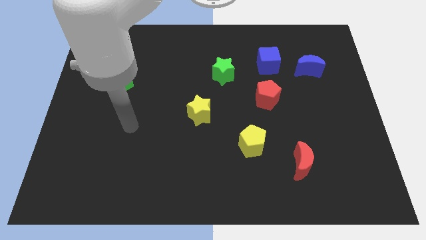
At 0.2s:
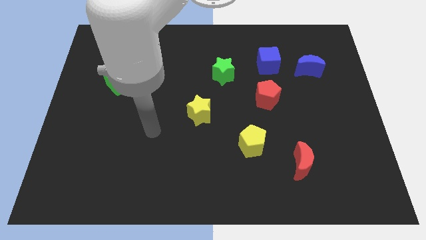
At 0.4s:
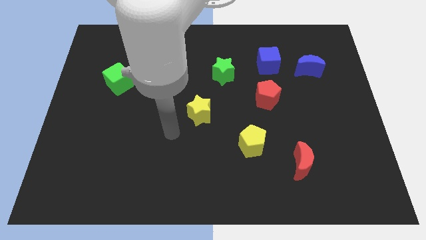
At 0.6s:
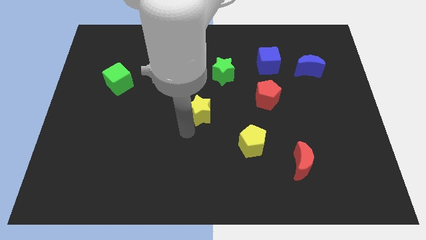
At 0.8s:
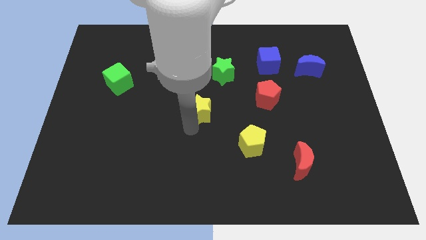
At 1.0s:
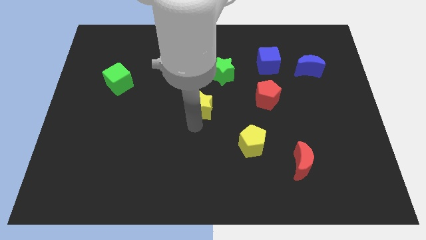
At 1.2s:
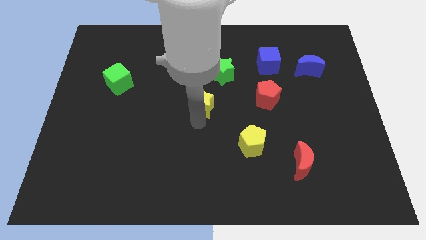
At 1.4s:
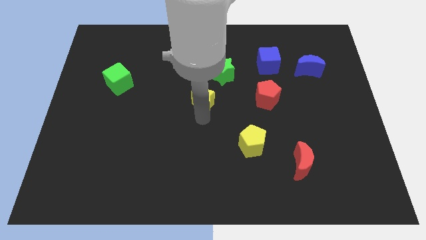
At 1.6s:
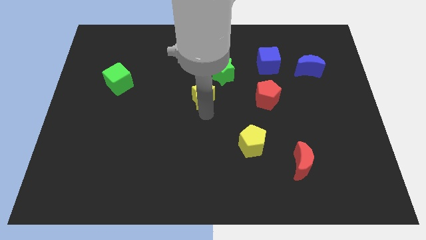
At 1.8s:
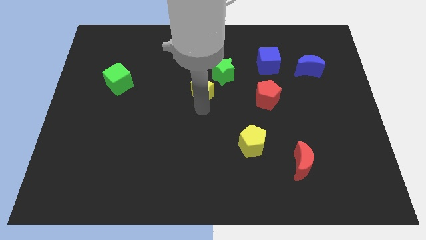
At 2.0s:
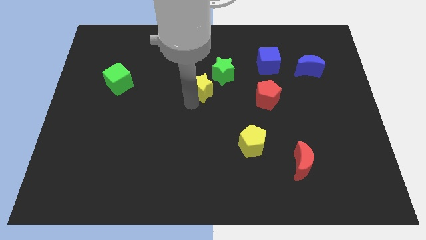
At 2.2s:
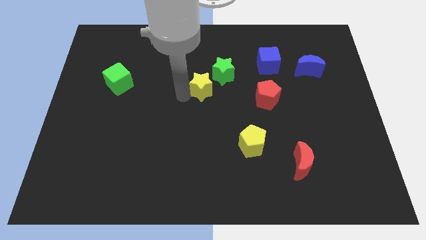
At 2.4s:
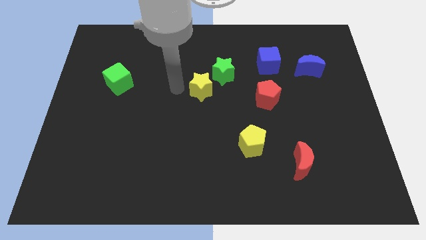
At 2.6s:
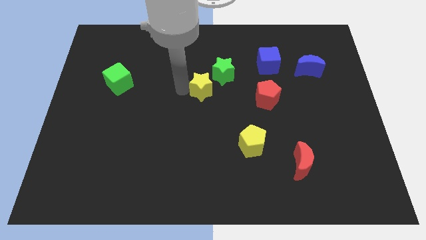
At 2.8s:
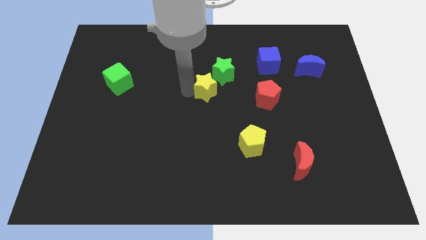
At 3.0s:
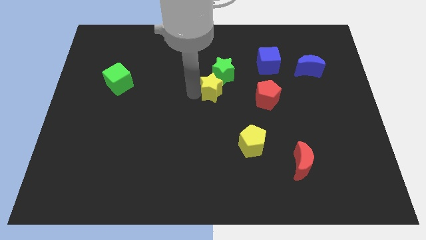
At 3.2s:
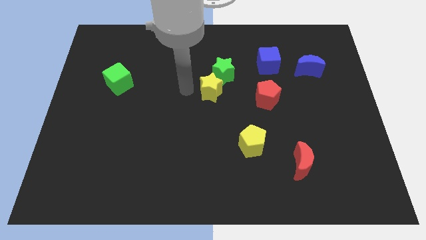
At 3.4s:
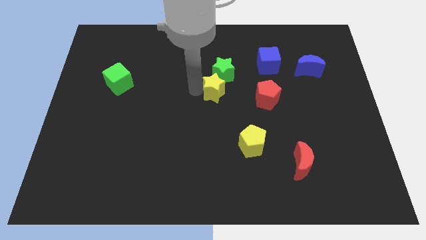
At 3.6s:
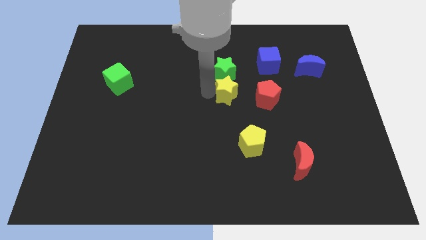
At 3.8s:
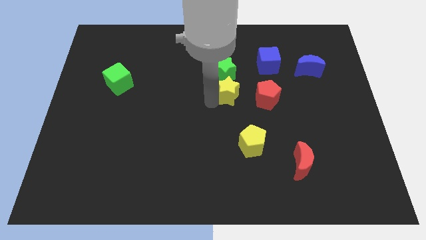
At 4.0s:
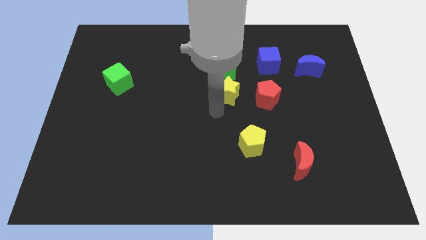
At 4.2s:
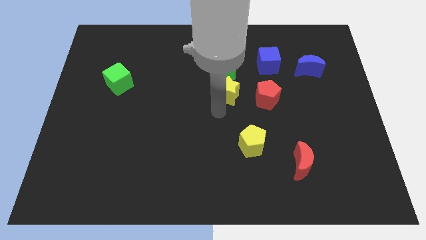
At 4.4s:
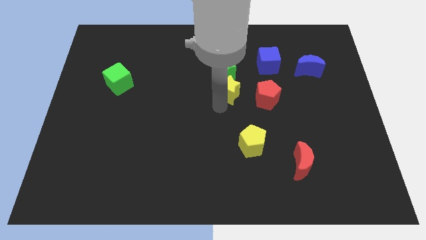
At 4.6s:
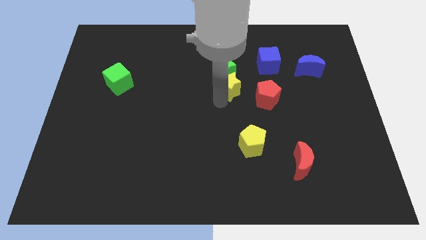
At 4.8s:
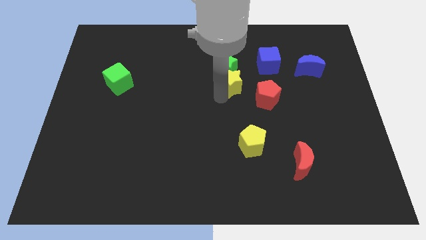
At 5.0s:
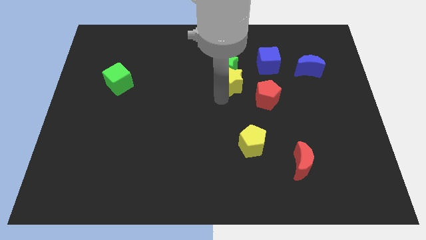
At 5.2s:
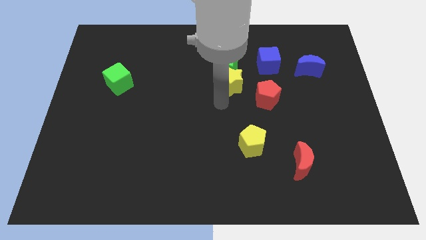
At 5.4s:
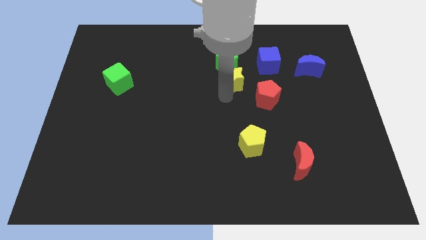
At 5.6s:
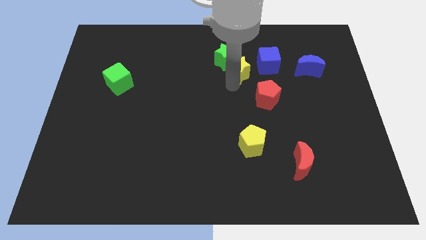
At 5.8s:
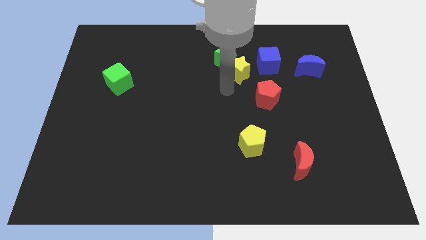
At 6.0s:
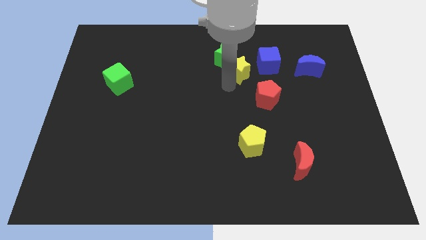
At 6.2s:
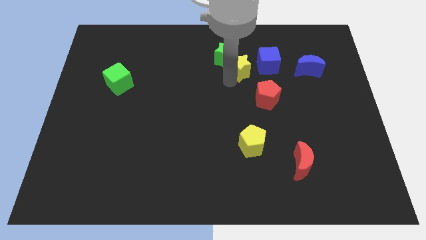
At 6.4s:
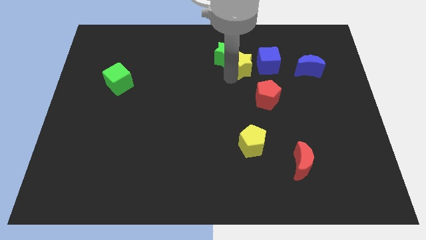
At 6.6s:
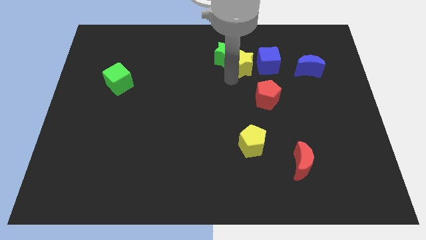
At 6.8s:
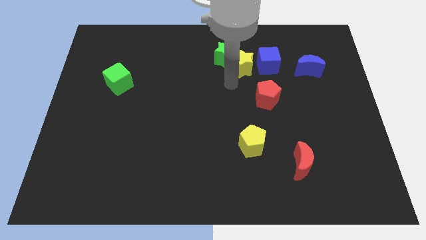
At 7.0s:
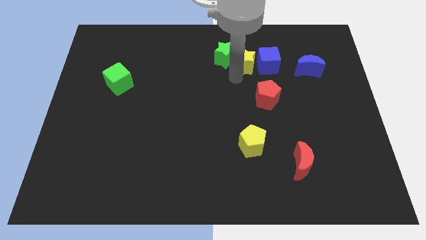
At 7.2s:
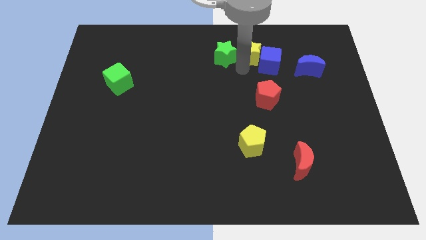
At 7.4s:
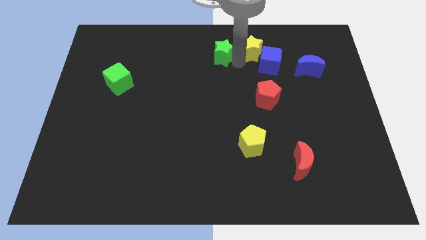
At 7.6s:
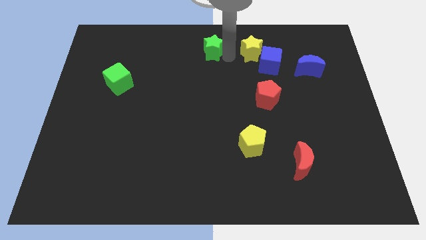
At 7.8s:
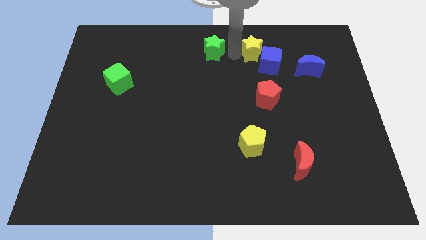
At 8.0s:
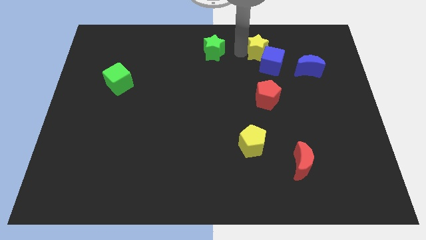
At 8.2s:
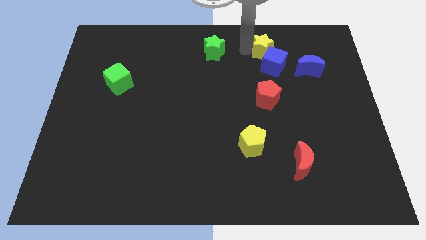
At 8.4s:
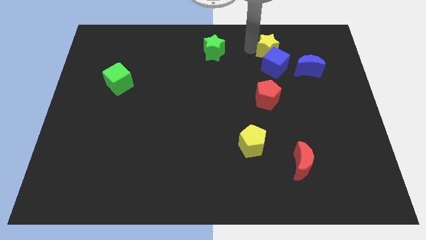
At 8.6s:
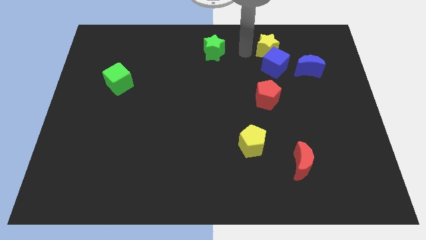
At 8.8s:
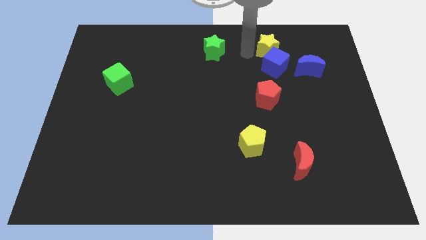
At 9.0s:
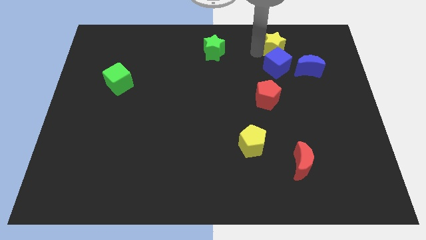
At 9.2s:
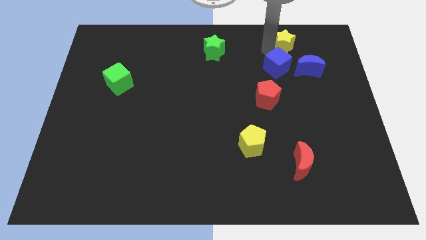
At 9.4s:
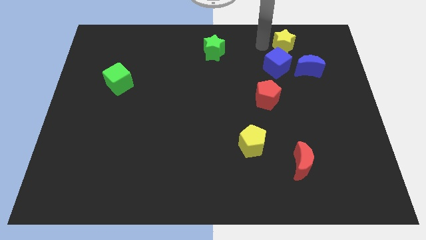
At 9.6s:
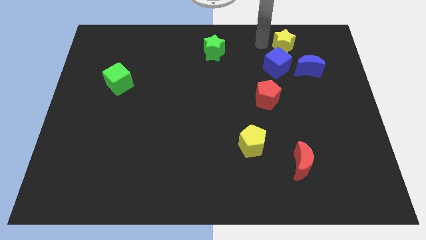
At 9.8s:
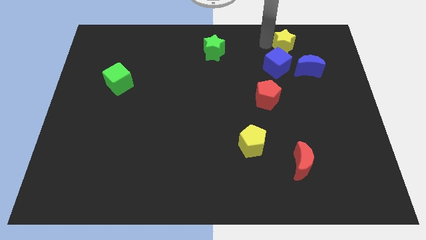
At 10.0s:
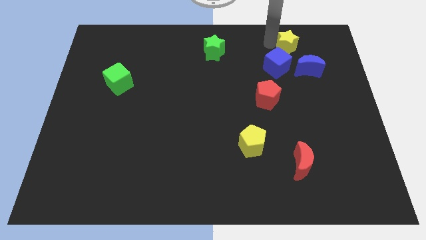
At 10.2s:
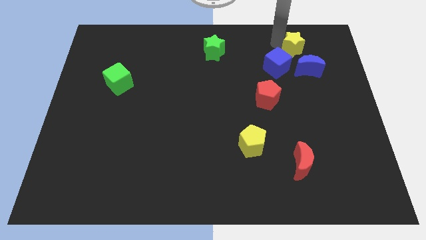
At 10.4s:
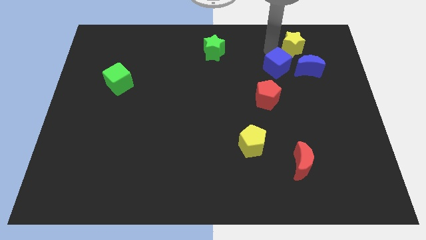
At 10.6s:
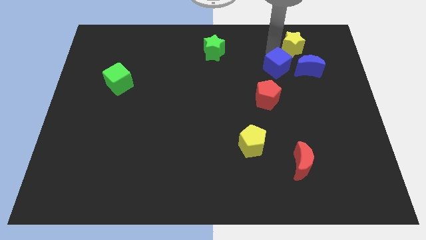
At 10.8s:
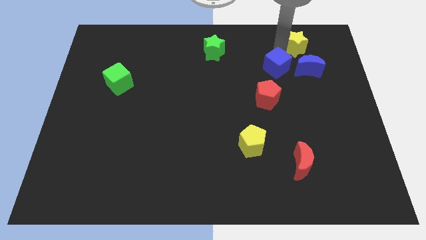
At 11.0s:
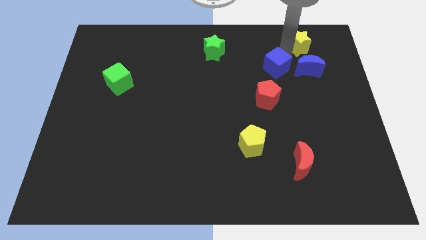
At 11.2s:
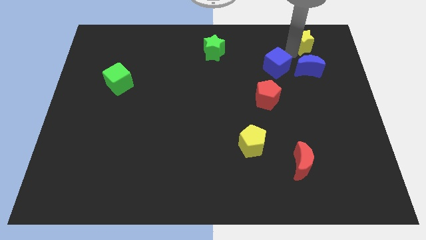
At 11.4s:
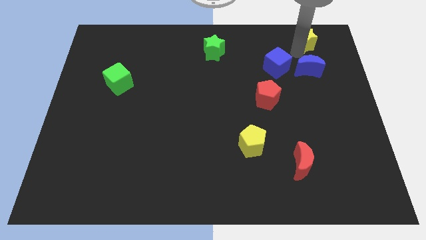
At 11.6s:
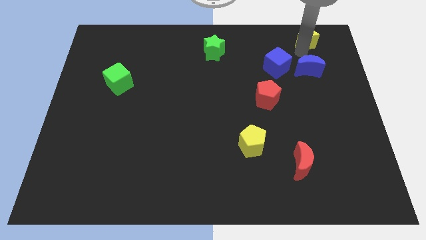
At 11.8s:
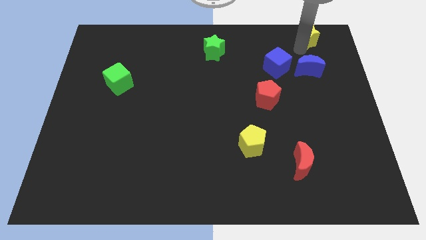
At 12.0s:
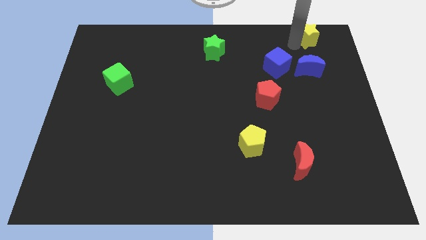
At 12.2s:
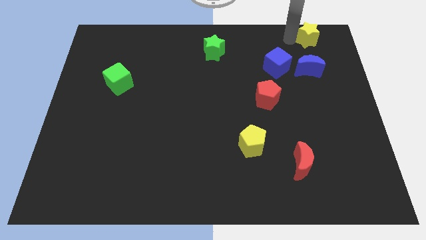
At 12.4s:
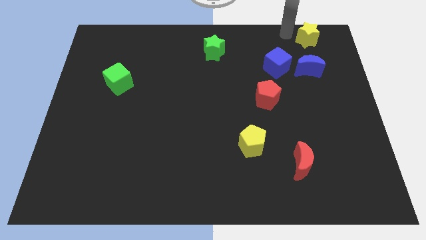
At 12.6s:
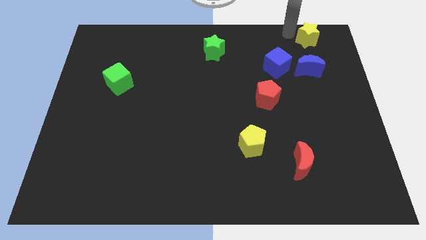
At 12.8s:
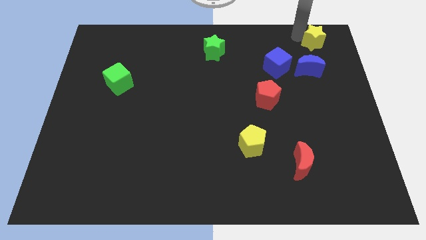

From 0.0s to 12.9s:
move the yellow star to the upper right corner
